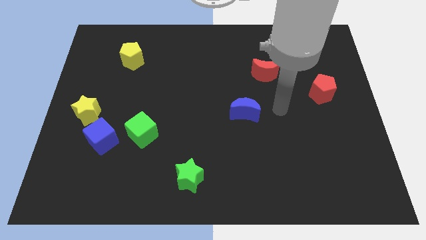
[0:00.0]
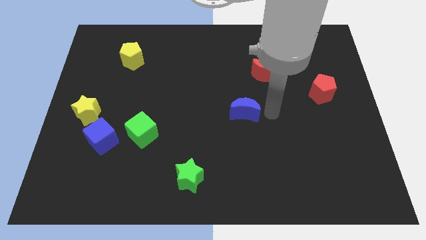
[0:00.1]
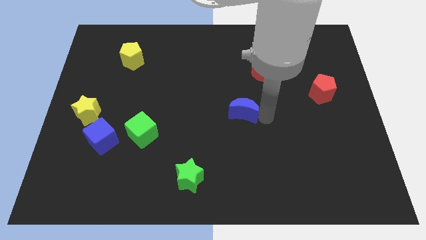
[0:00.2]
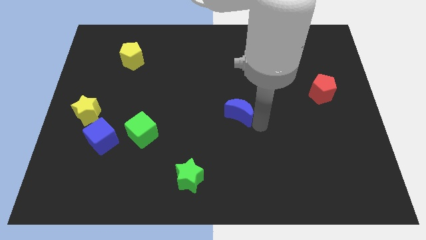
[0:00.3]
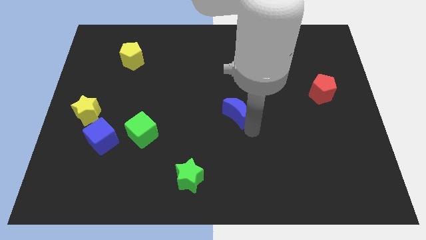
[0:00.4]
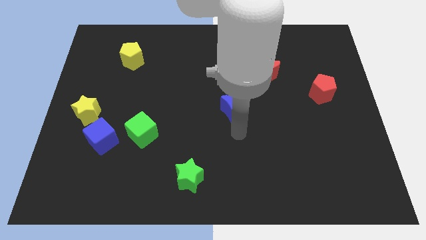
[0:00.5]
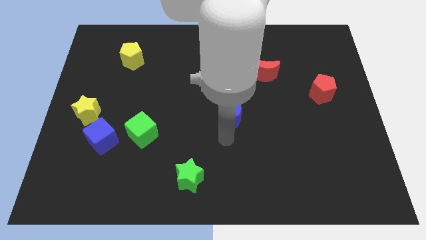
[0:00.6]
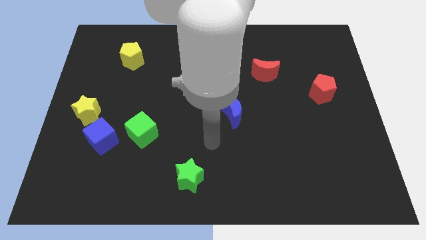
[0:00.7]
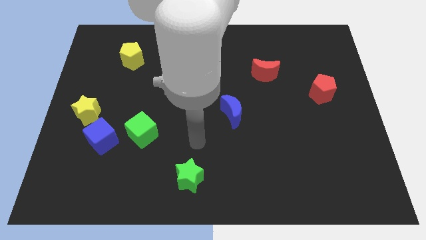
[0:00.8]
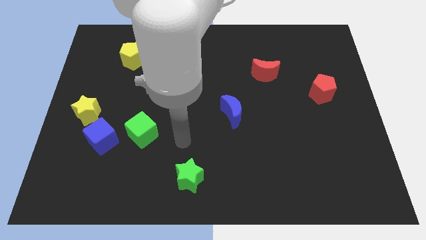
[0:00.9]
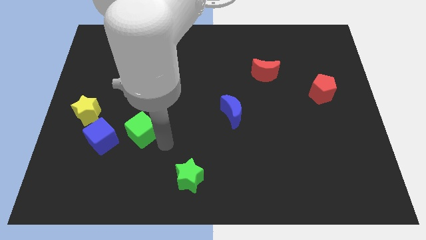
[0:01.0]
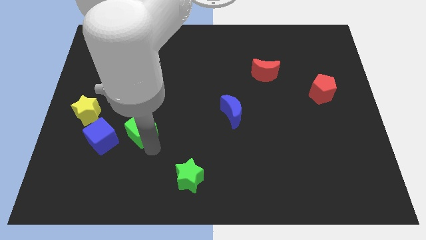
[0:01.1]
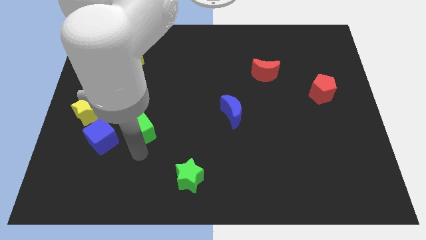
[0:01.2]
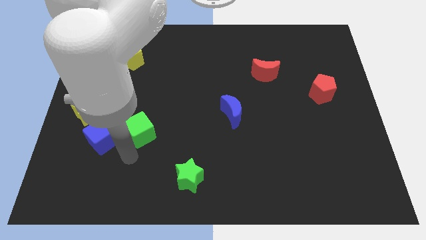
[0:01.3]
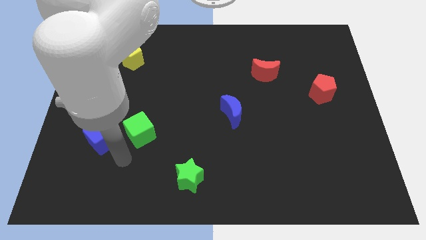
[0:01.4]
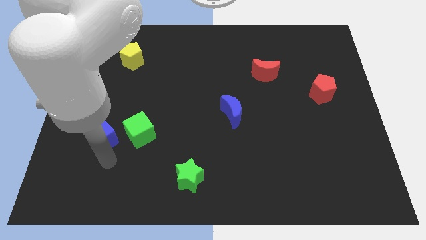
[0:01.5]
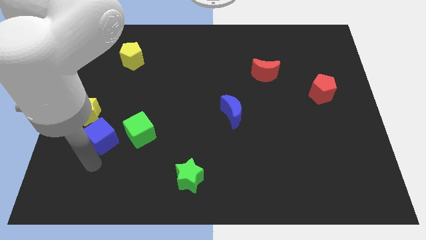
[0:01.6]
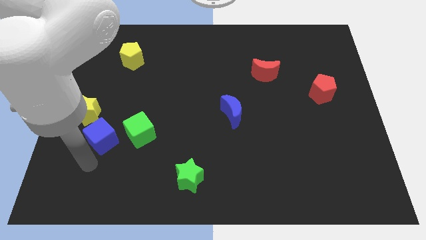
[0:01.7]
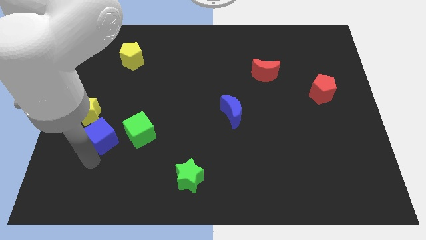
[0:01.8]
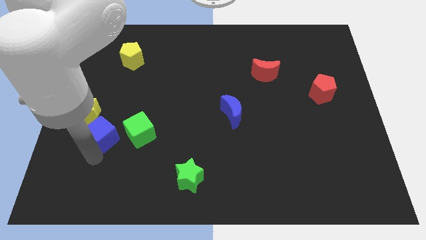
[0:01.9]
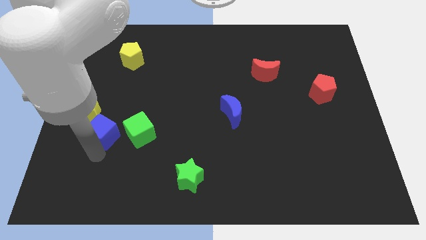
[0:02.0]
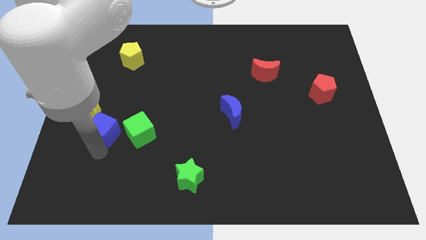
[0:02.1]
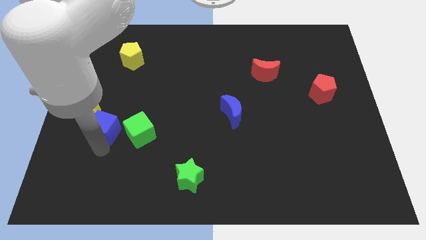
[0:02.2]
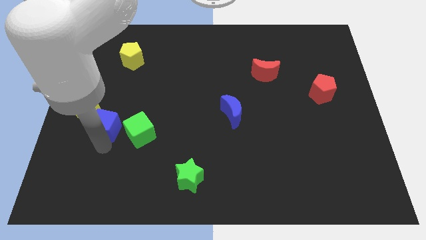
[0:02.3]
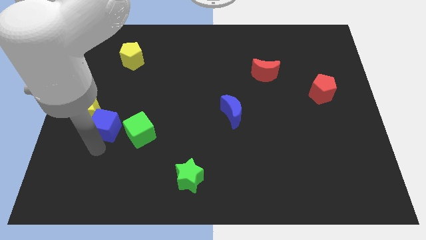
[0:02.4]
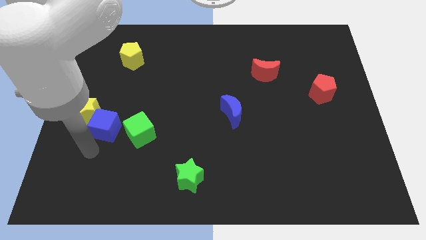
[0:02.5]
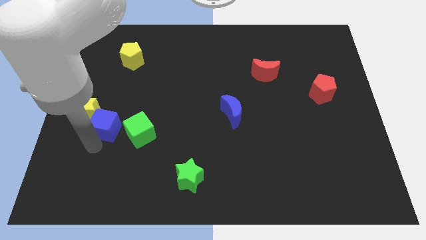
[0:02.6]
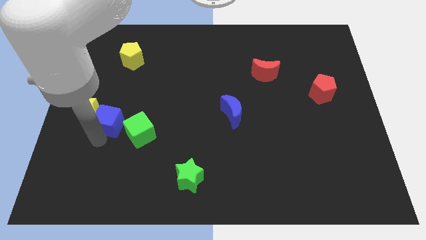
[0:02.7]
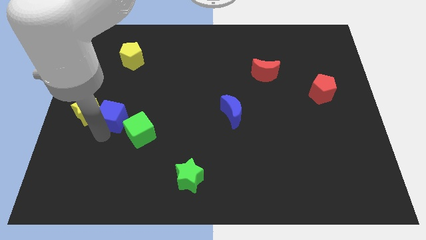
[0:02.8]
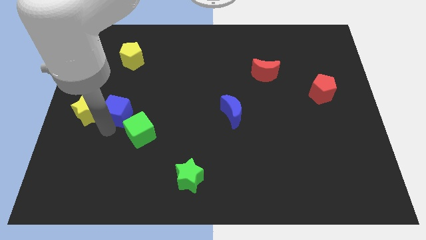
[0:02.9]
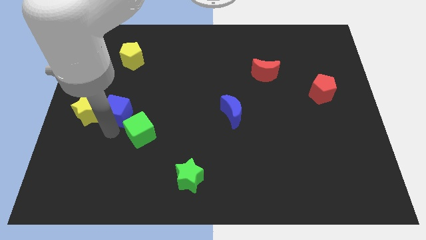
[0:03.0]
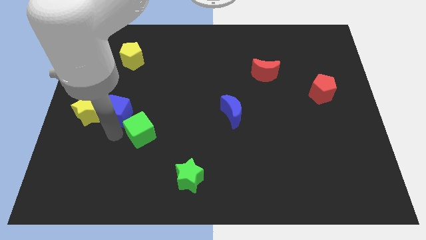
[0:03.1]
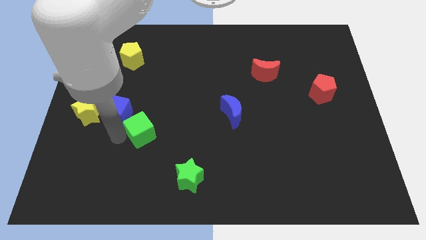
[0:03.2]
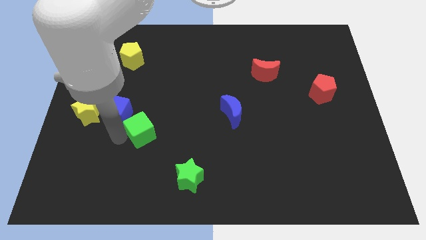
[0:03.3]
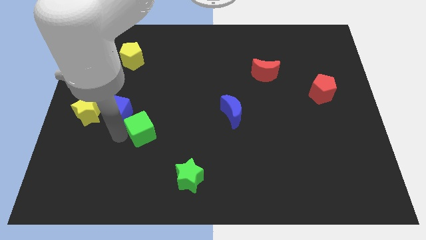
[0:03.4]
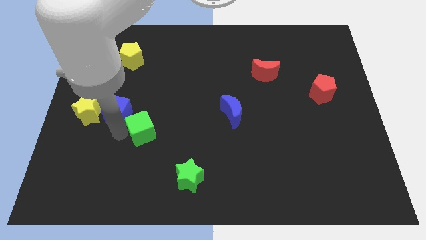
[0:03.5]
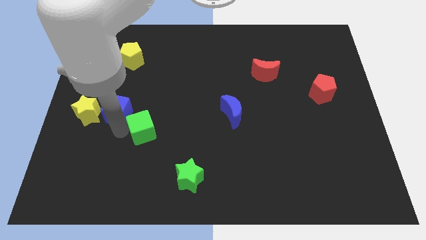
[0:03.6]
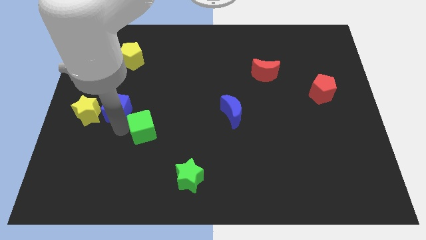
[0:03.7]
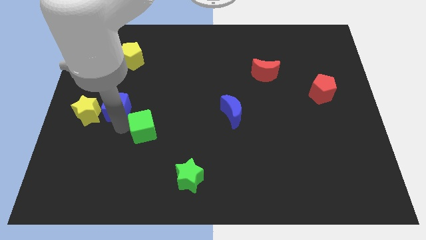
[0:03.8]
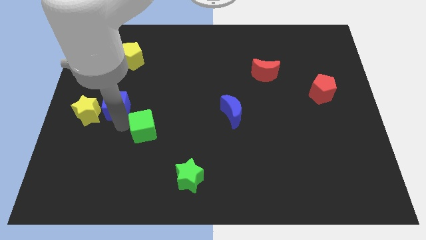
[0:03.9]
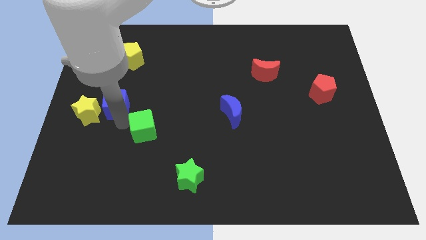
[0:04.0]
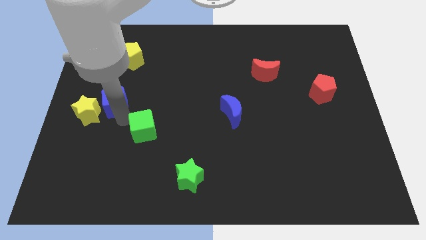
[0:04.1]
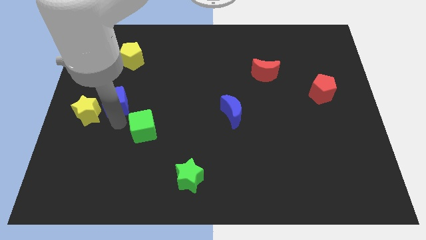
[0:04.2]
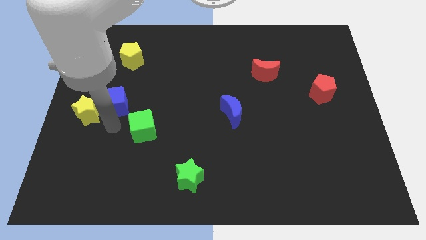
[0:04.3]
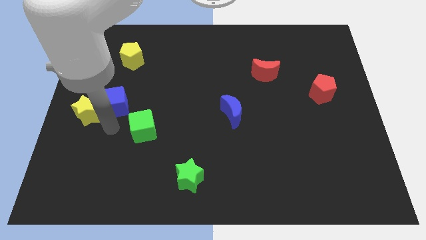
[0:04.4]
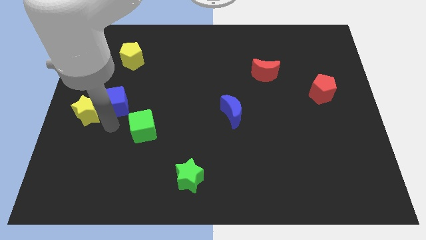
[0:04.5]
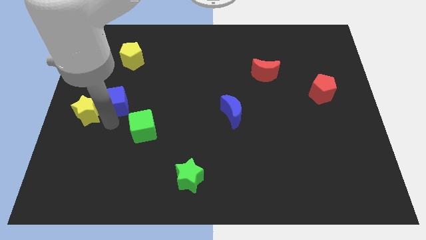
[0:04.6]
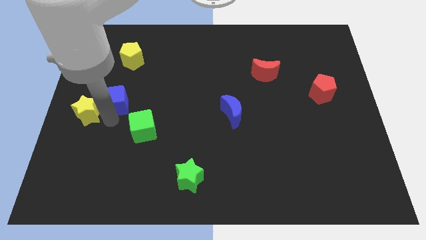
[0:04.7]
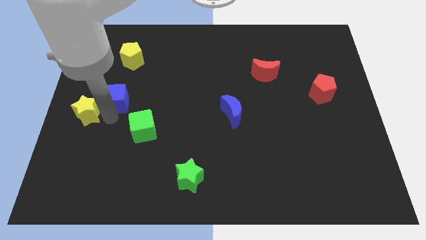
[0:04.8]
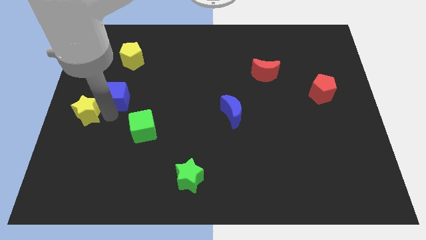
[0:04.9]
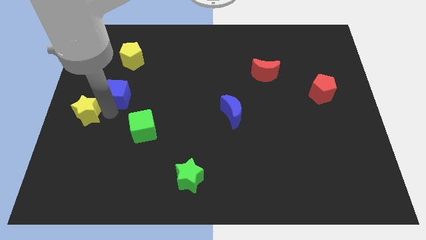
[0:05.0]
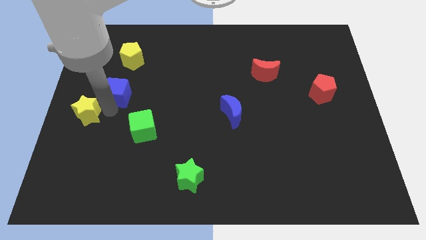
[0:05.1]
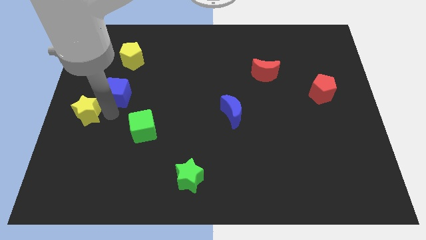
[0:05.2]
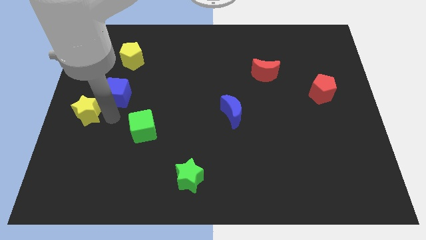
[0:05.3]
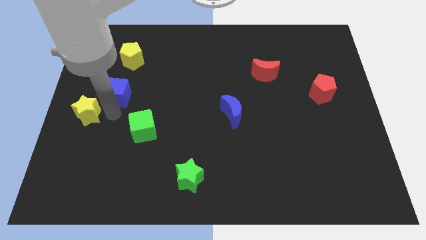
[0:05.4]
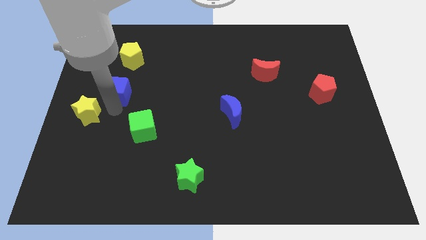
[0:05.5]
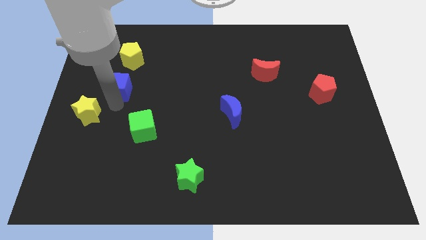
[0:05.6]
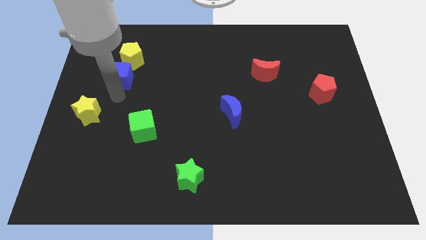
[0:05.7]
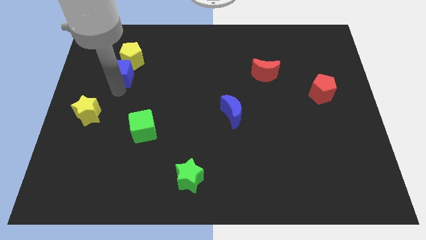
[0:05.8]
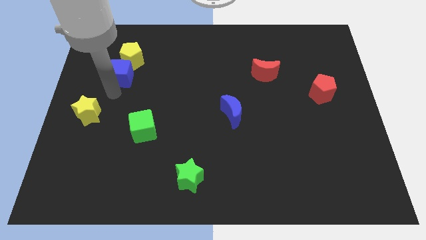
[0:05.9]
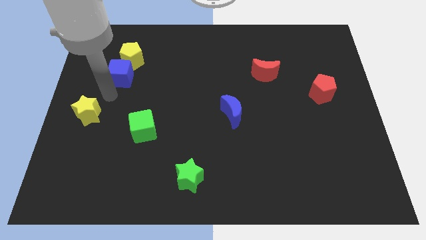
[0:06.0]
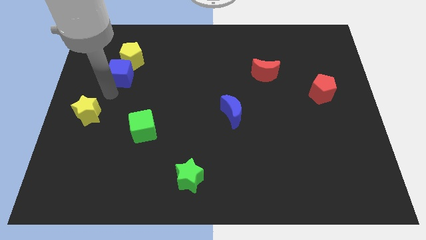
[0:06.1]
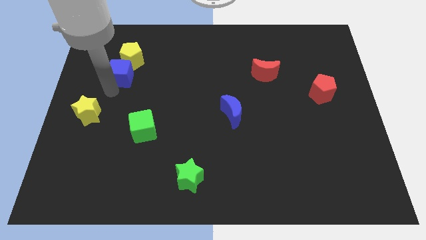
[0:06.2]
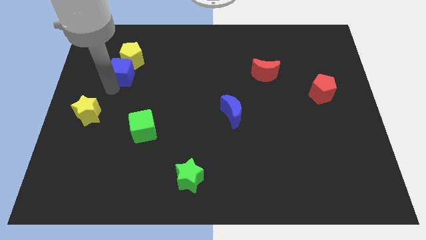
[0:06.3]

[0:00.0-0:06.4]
push the blue cube next to the yellow pentagon

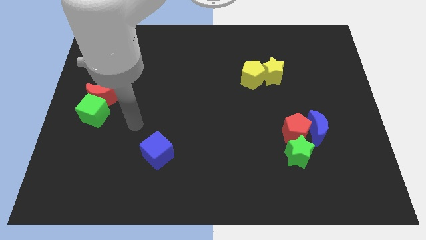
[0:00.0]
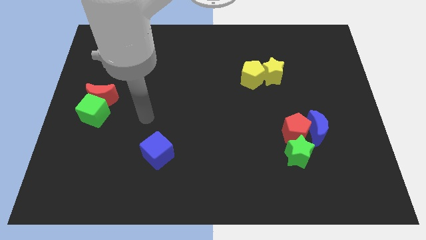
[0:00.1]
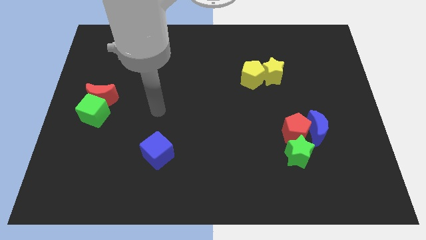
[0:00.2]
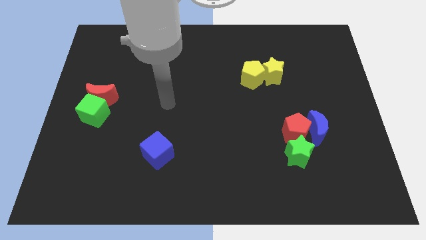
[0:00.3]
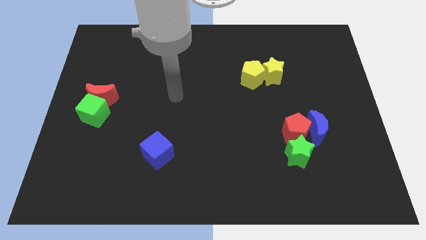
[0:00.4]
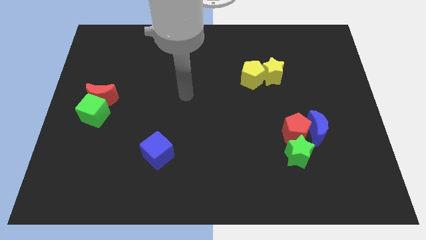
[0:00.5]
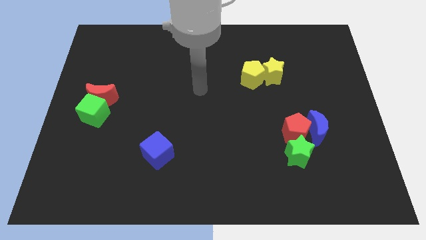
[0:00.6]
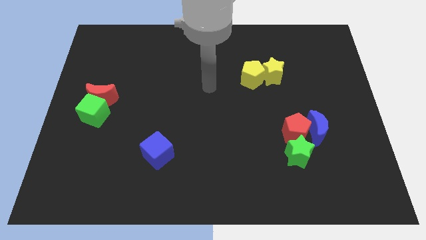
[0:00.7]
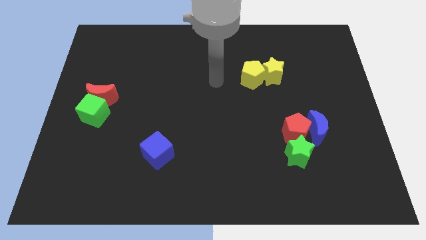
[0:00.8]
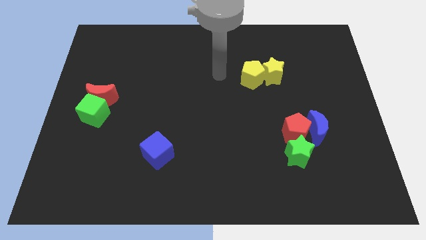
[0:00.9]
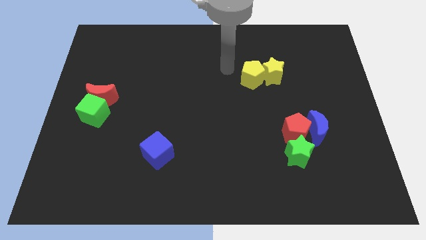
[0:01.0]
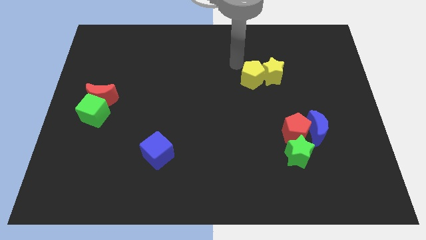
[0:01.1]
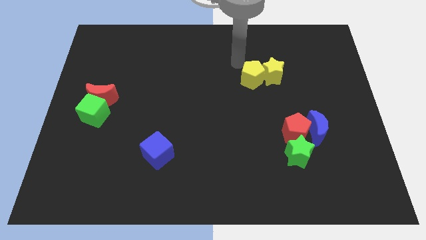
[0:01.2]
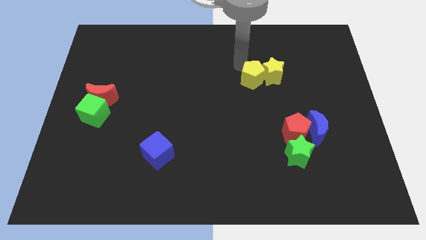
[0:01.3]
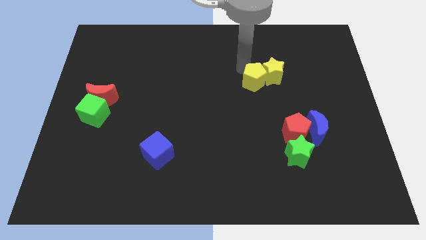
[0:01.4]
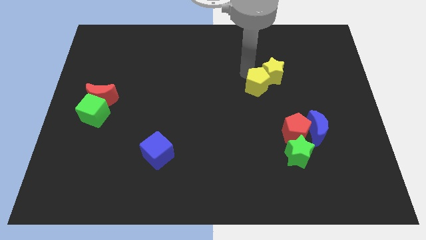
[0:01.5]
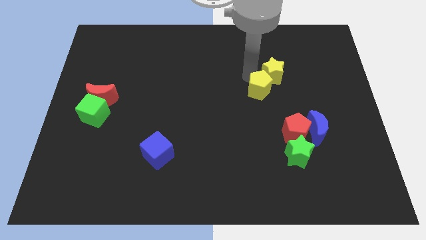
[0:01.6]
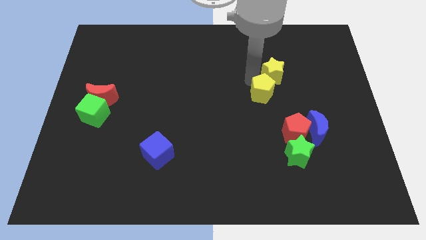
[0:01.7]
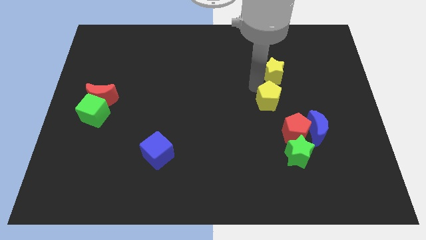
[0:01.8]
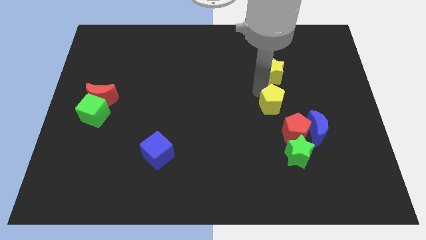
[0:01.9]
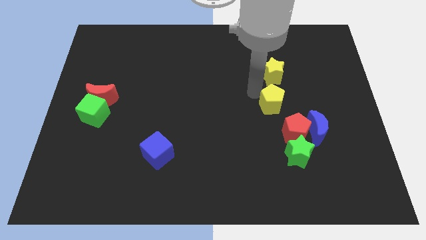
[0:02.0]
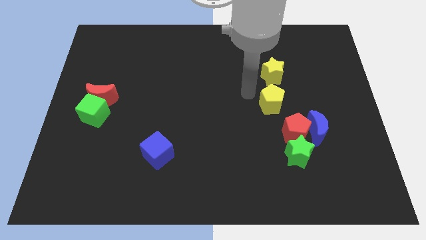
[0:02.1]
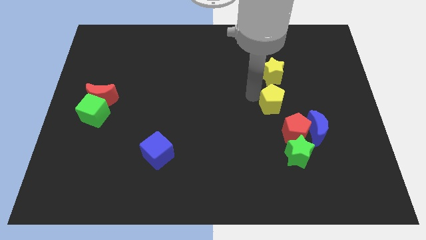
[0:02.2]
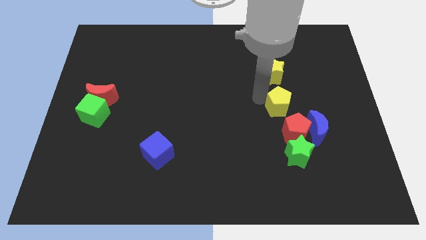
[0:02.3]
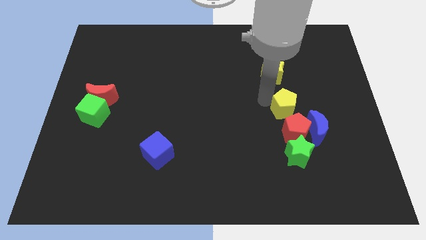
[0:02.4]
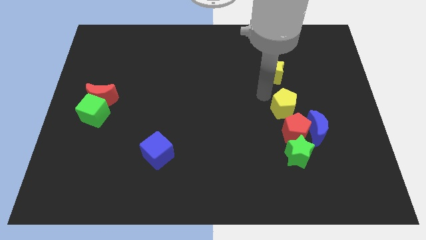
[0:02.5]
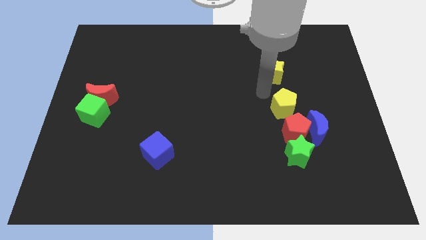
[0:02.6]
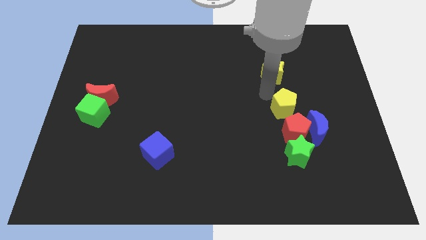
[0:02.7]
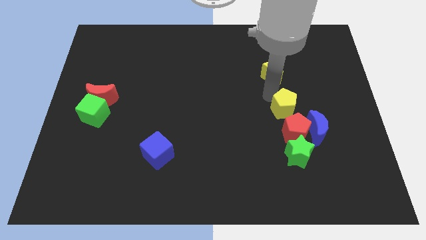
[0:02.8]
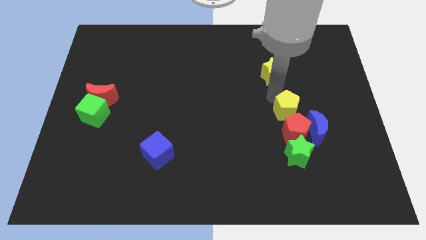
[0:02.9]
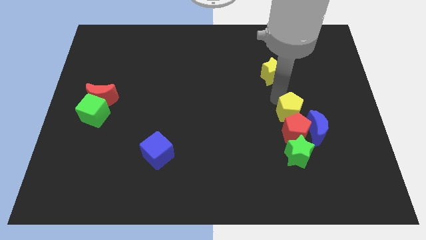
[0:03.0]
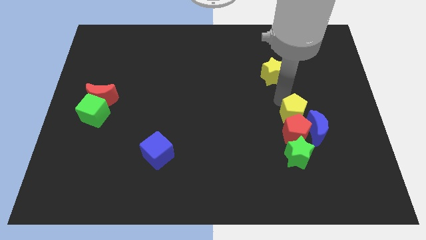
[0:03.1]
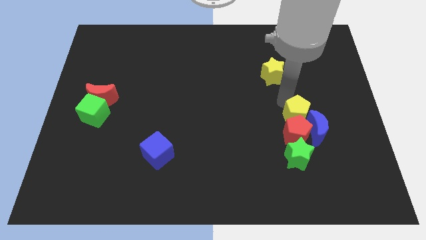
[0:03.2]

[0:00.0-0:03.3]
slide the yellow pentagon to the blue moon
